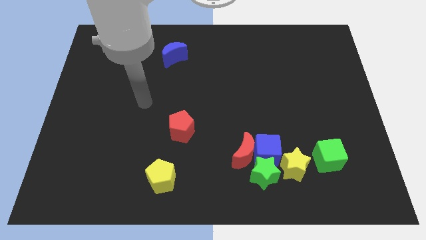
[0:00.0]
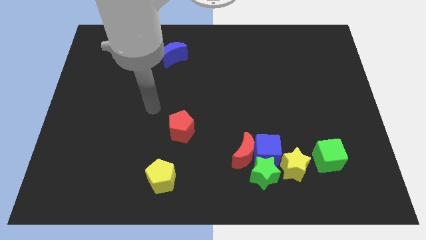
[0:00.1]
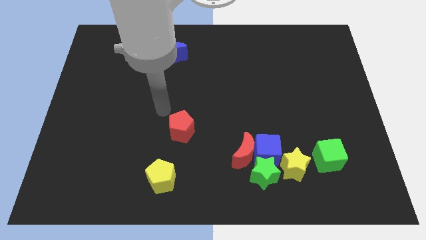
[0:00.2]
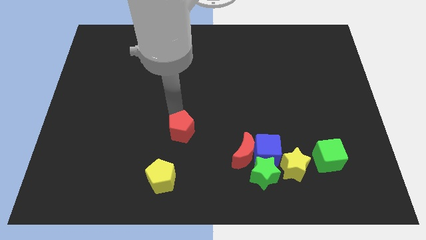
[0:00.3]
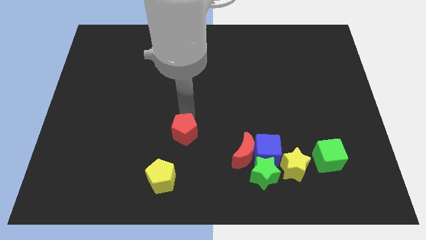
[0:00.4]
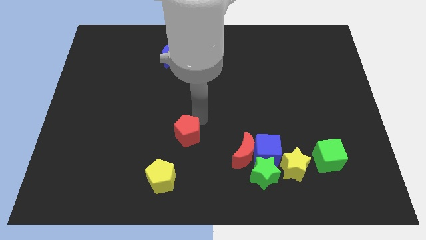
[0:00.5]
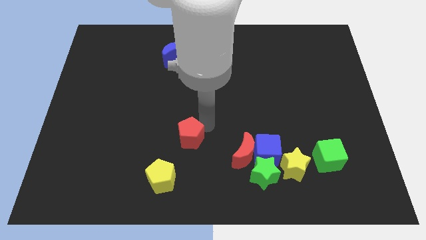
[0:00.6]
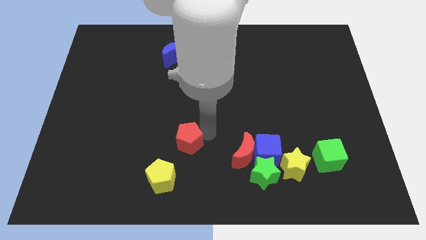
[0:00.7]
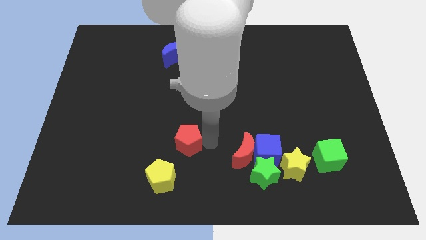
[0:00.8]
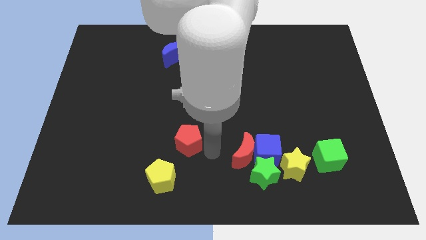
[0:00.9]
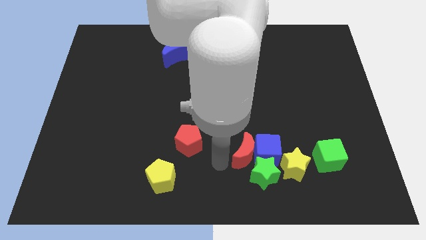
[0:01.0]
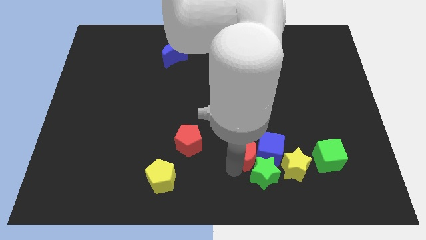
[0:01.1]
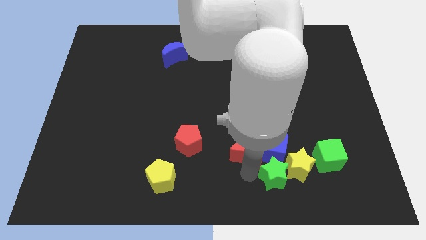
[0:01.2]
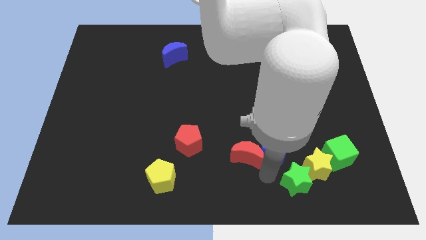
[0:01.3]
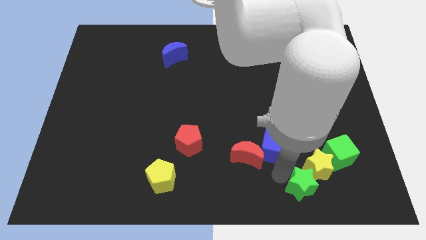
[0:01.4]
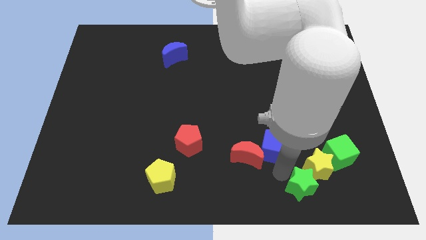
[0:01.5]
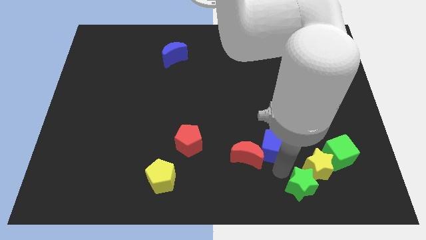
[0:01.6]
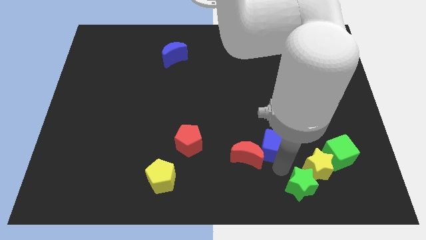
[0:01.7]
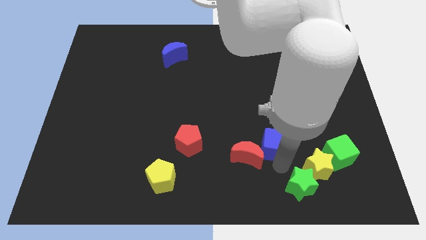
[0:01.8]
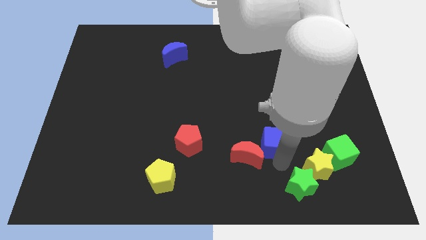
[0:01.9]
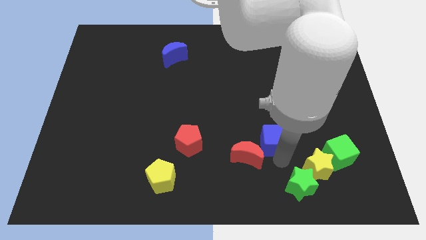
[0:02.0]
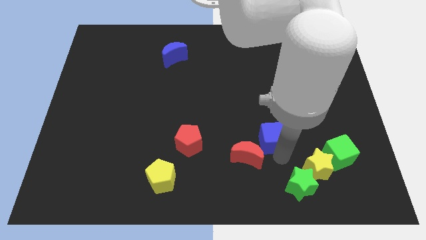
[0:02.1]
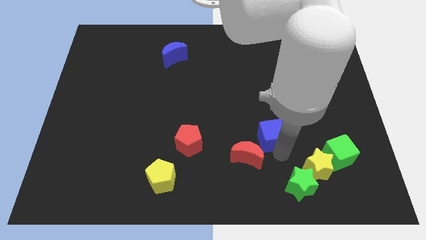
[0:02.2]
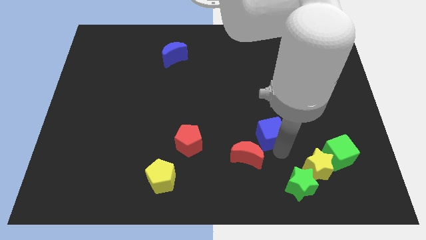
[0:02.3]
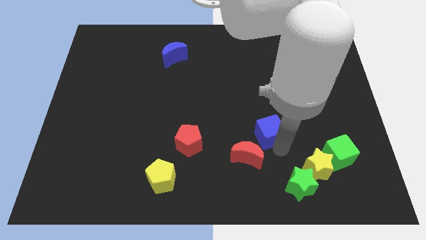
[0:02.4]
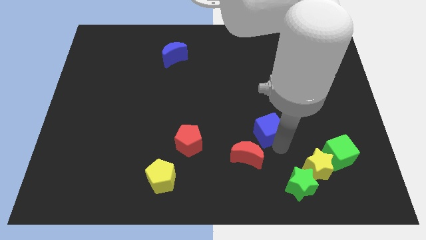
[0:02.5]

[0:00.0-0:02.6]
move the blue cube away from the group

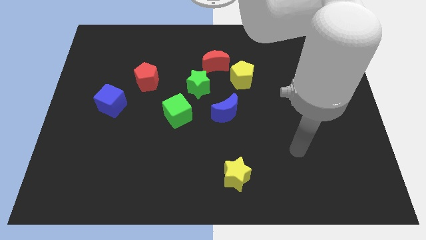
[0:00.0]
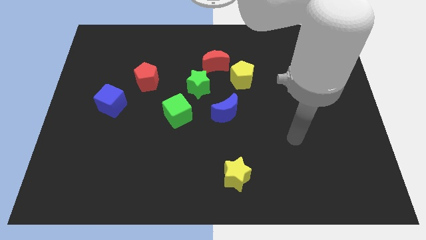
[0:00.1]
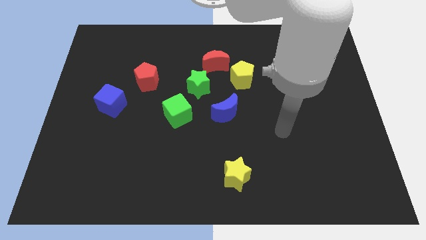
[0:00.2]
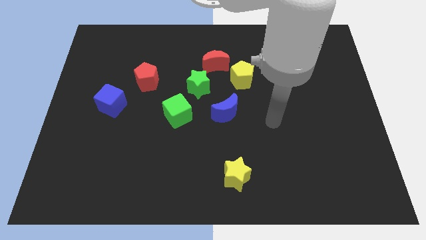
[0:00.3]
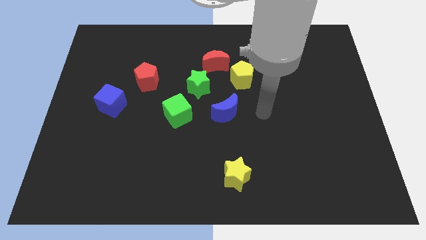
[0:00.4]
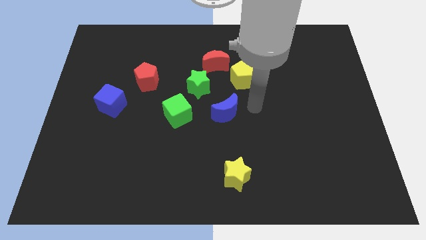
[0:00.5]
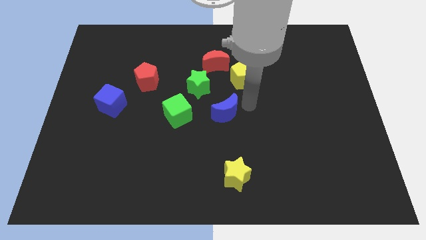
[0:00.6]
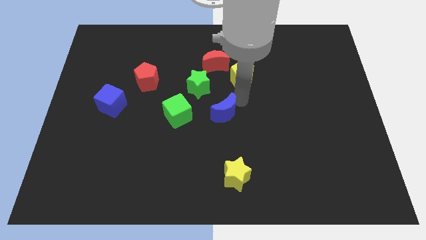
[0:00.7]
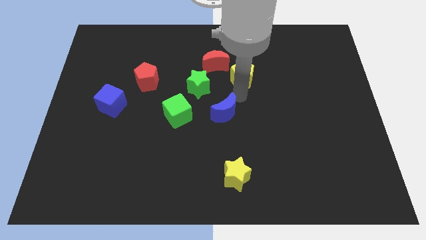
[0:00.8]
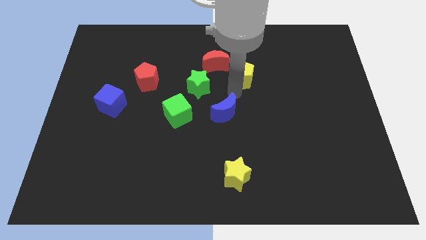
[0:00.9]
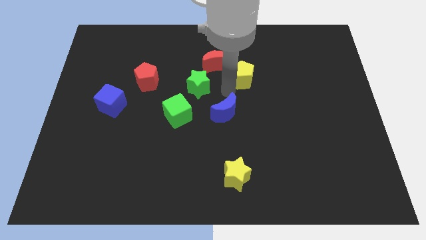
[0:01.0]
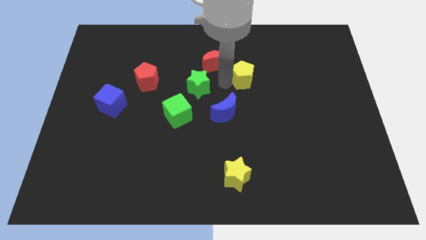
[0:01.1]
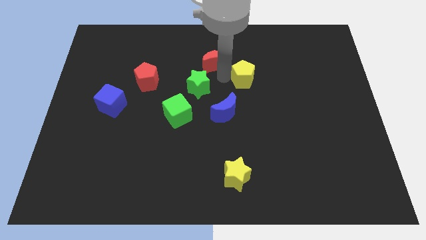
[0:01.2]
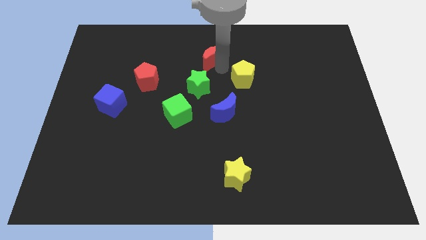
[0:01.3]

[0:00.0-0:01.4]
pull the yellow pentagon apart from the red moon

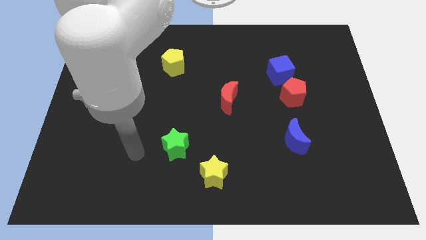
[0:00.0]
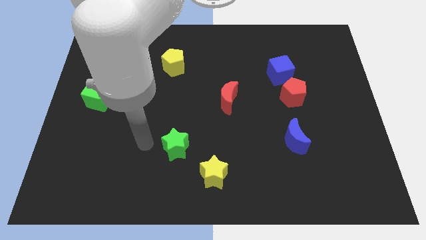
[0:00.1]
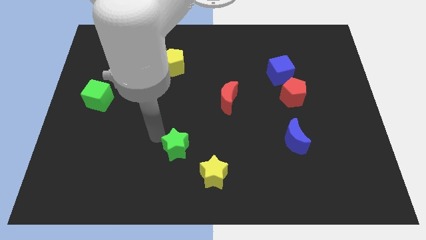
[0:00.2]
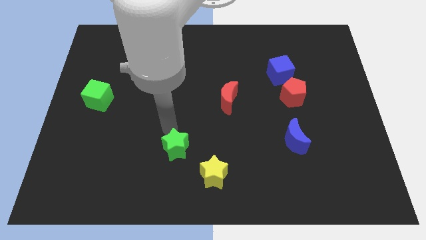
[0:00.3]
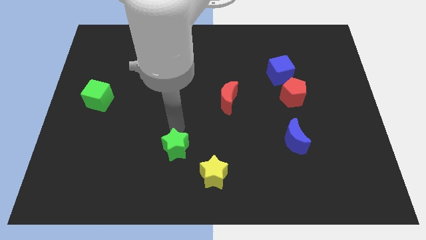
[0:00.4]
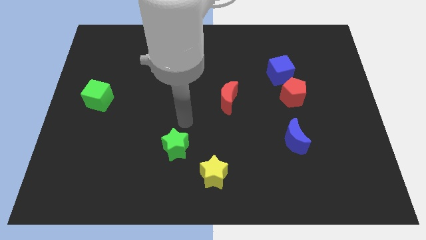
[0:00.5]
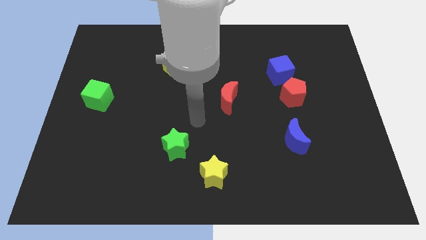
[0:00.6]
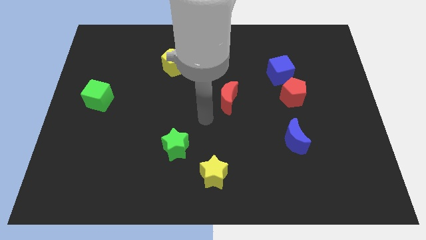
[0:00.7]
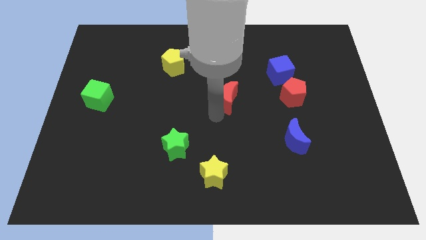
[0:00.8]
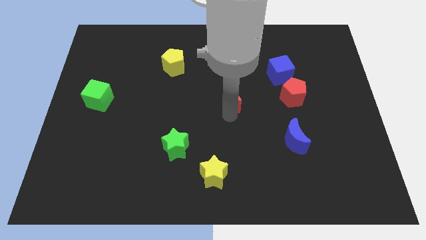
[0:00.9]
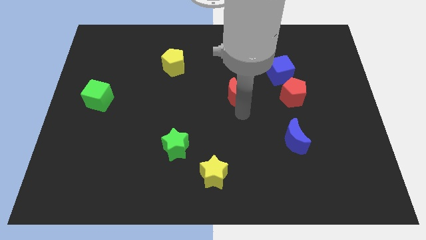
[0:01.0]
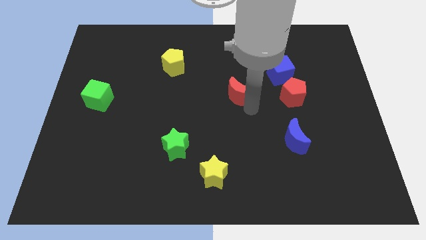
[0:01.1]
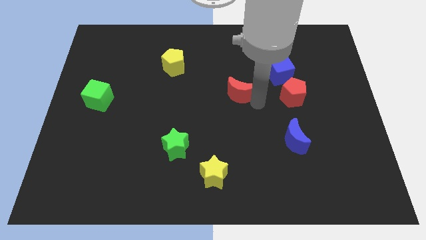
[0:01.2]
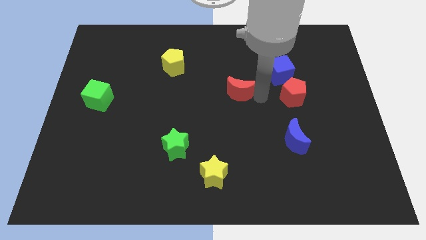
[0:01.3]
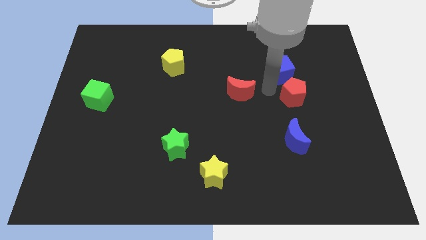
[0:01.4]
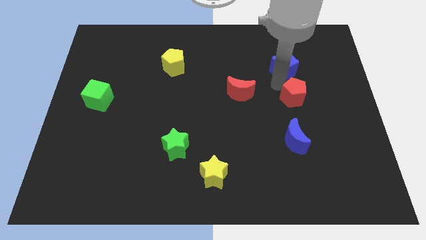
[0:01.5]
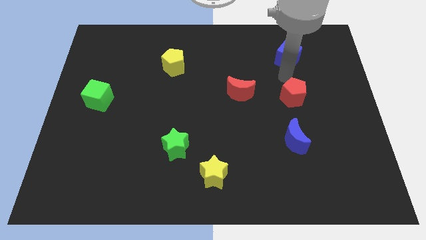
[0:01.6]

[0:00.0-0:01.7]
pull the red pentagon apart from the blue cube

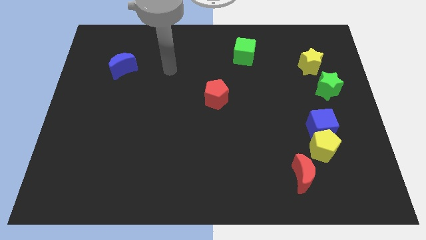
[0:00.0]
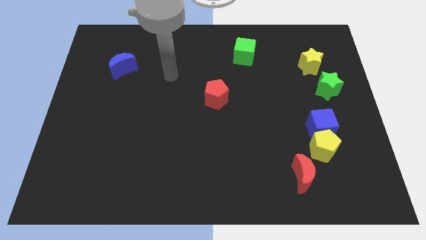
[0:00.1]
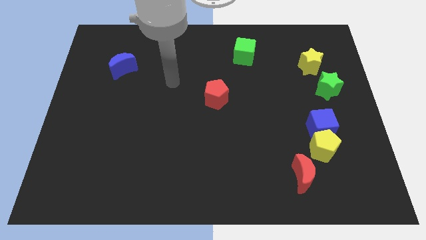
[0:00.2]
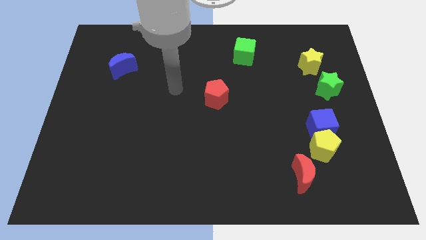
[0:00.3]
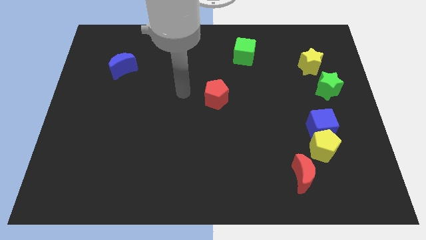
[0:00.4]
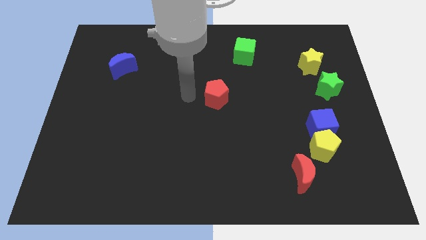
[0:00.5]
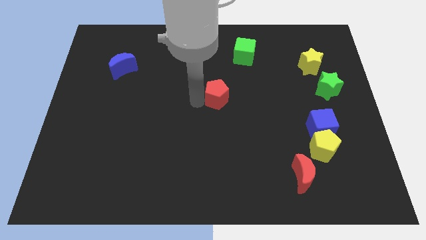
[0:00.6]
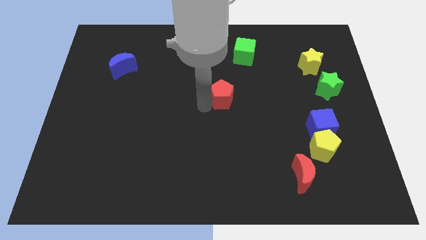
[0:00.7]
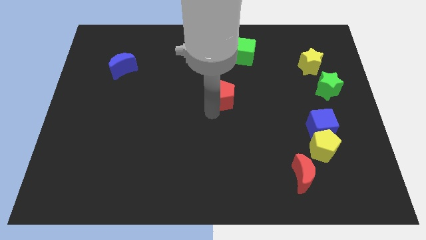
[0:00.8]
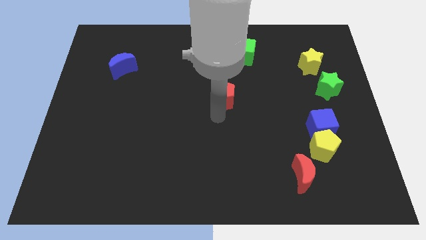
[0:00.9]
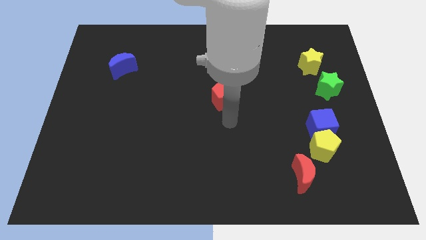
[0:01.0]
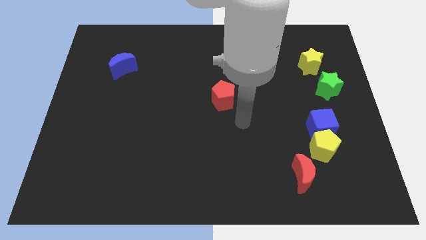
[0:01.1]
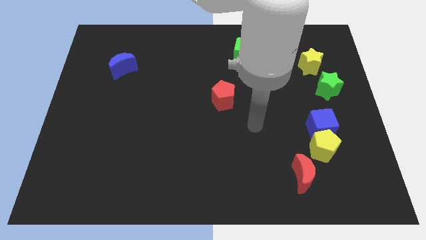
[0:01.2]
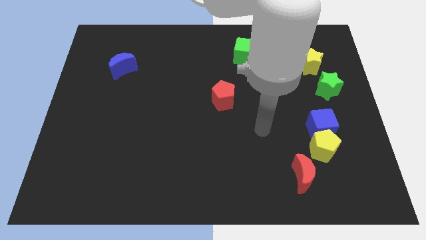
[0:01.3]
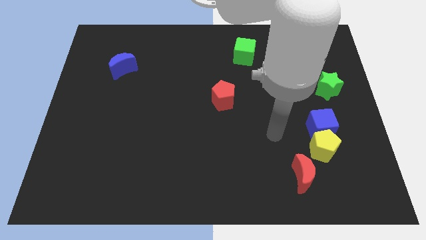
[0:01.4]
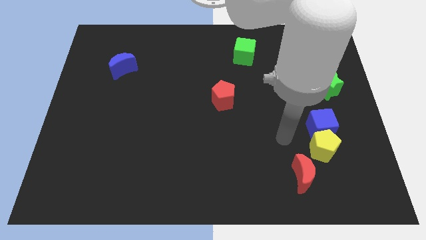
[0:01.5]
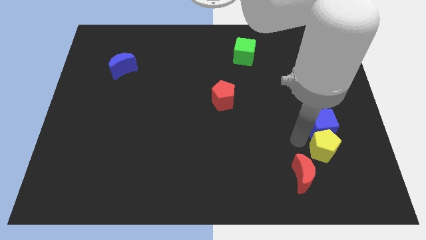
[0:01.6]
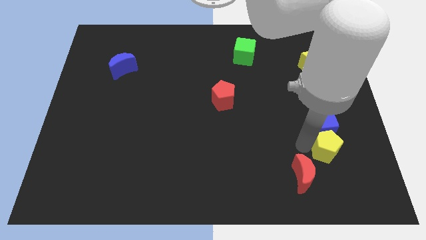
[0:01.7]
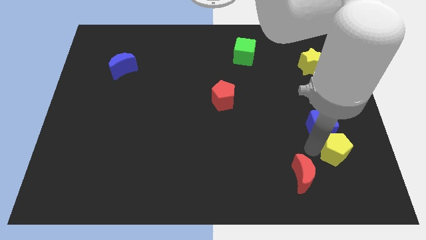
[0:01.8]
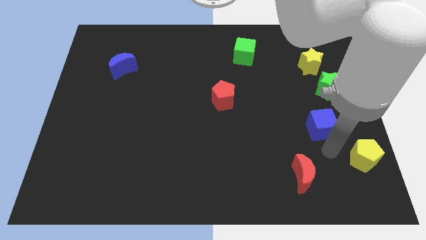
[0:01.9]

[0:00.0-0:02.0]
separate the blue cube from the yellow pentagon

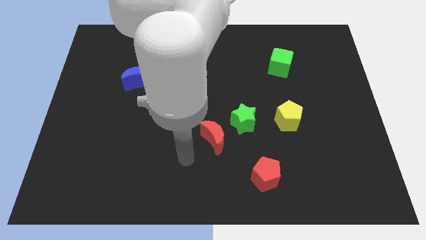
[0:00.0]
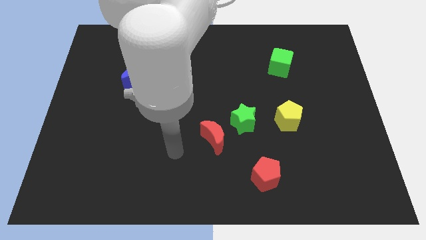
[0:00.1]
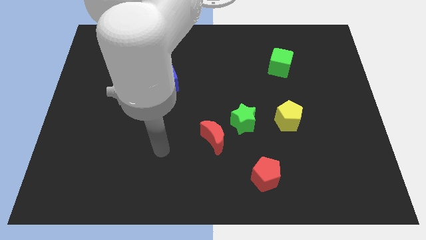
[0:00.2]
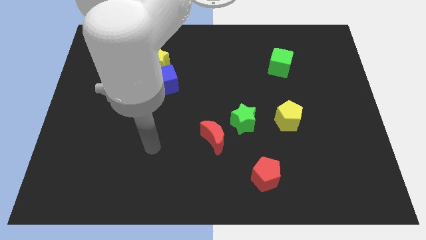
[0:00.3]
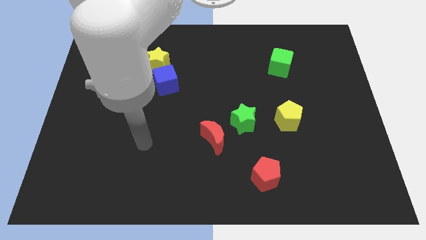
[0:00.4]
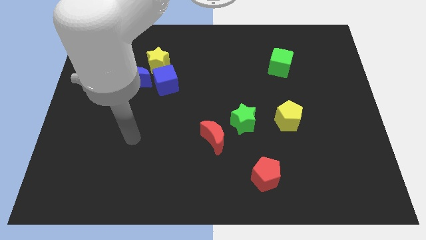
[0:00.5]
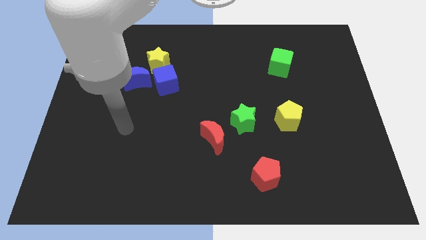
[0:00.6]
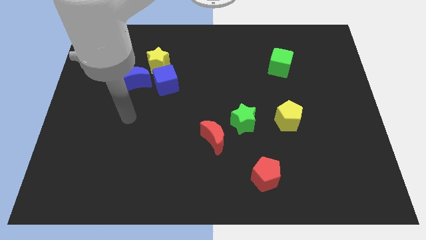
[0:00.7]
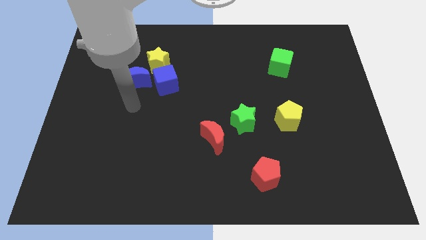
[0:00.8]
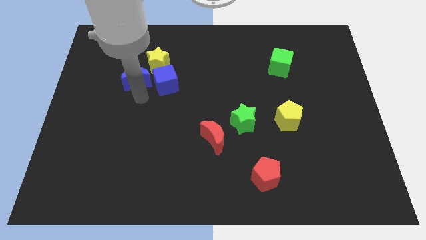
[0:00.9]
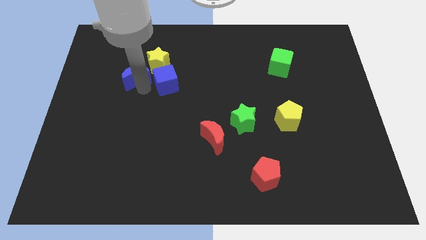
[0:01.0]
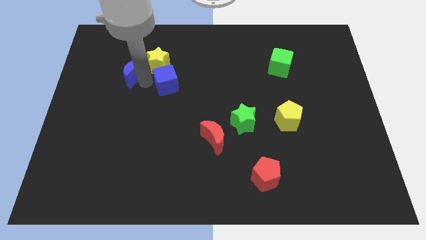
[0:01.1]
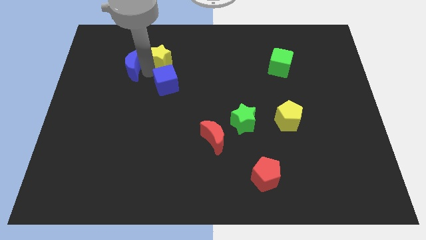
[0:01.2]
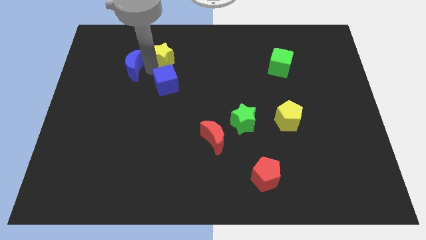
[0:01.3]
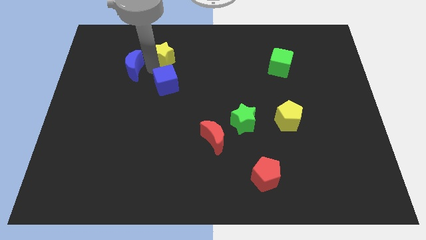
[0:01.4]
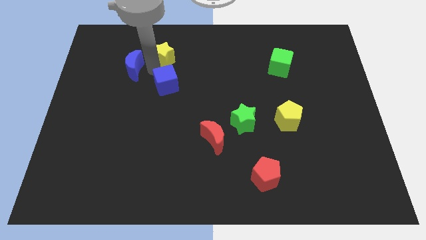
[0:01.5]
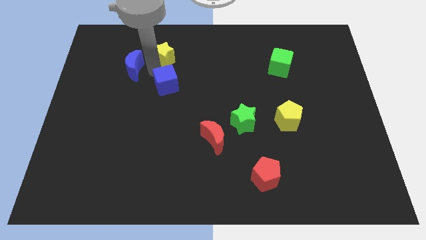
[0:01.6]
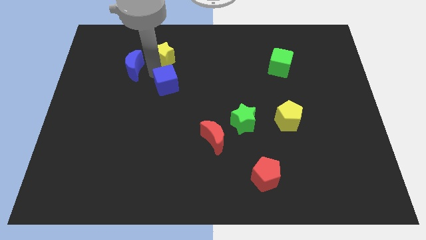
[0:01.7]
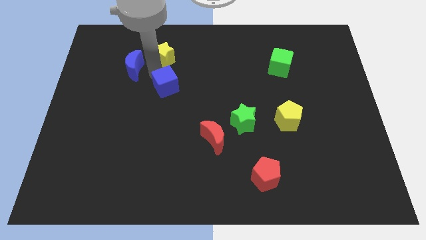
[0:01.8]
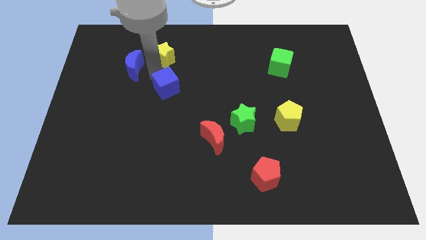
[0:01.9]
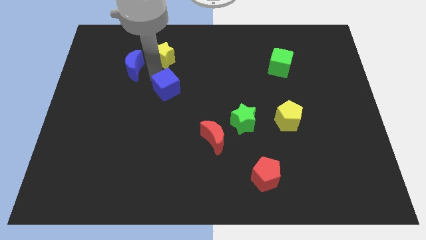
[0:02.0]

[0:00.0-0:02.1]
separate the blue cube from the yellow star and blue moon
